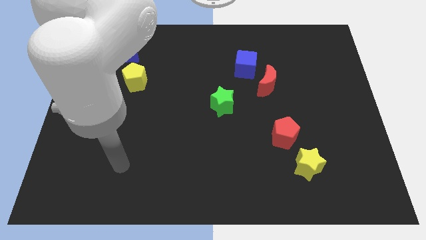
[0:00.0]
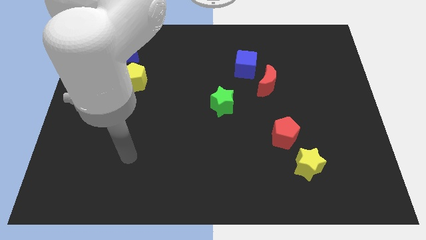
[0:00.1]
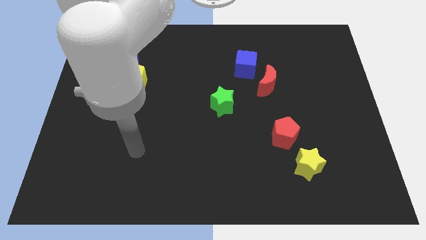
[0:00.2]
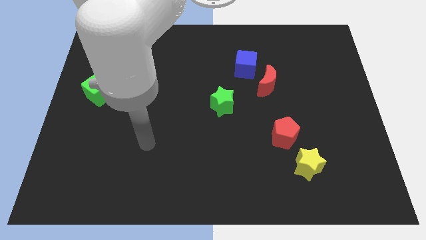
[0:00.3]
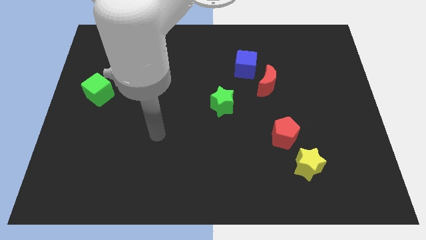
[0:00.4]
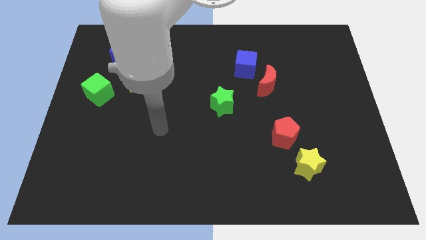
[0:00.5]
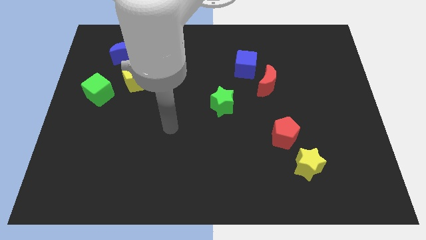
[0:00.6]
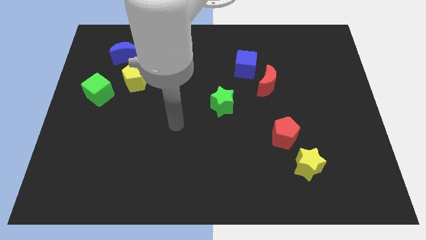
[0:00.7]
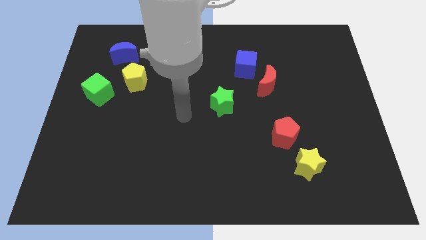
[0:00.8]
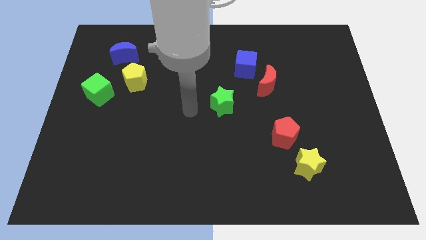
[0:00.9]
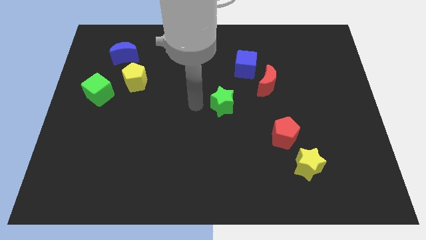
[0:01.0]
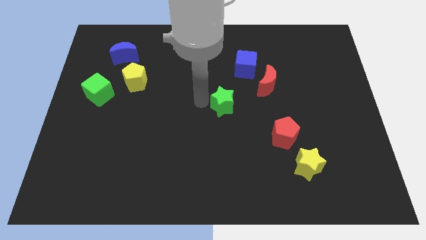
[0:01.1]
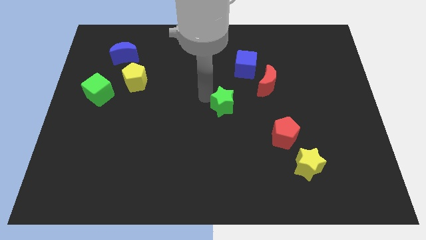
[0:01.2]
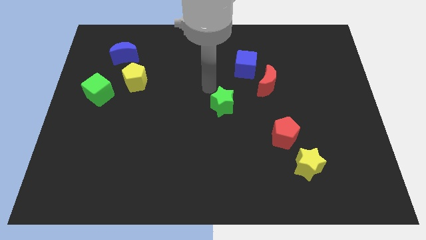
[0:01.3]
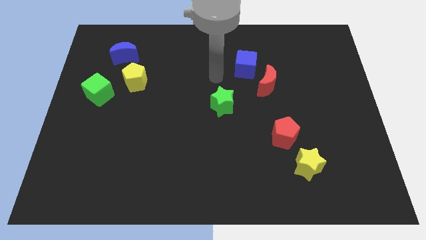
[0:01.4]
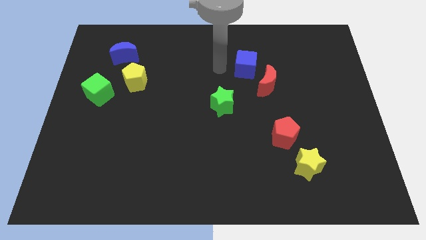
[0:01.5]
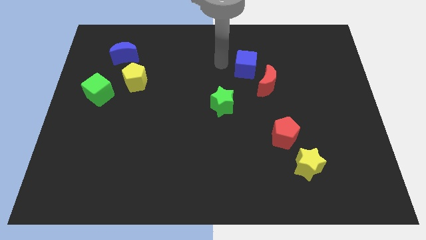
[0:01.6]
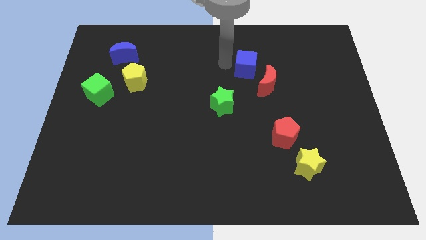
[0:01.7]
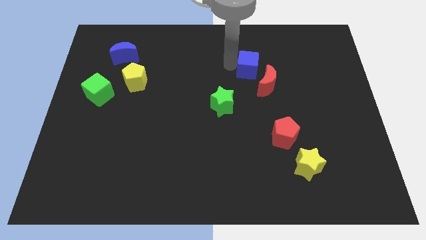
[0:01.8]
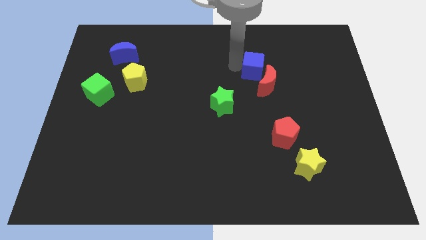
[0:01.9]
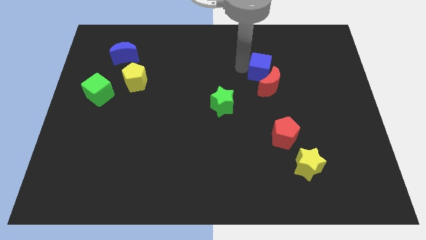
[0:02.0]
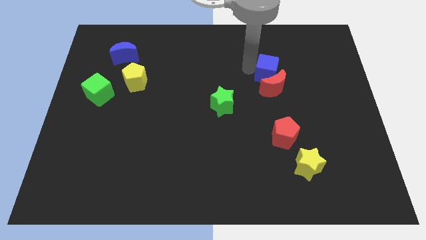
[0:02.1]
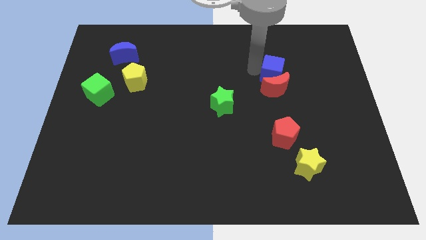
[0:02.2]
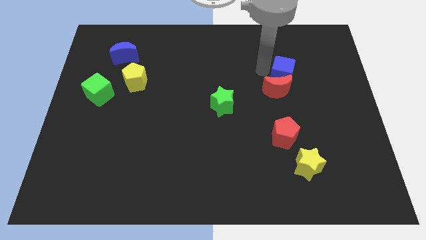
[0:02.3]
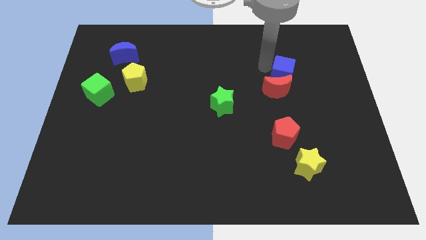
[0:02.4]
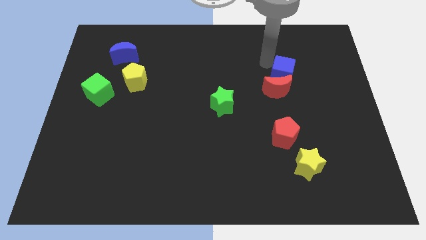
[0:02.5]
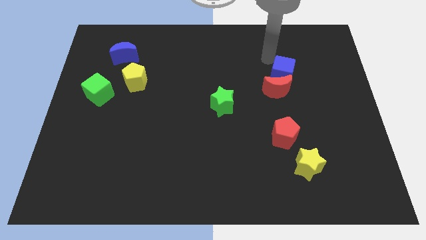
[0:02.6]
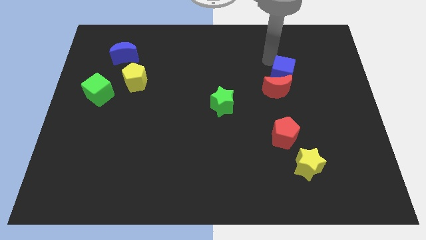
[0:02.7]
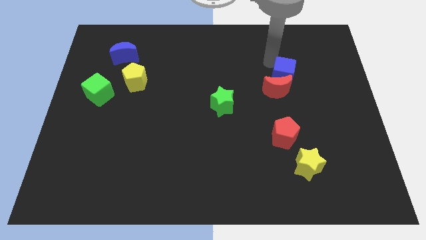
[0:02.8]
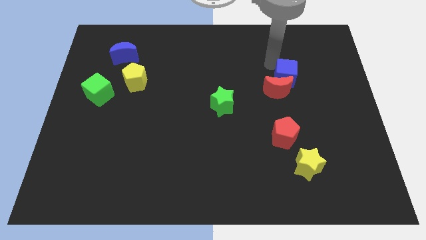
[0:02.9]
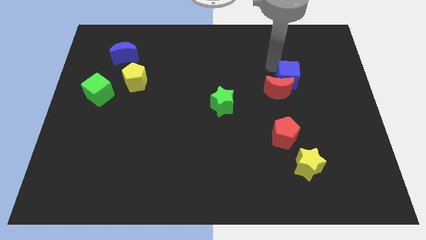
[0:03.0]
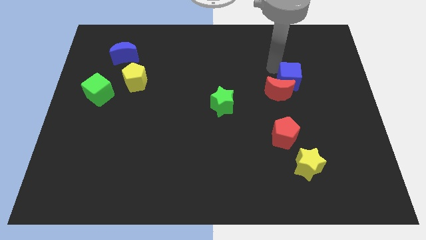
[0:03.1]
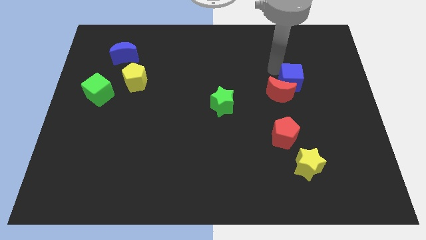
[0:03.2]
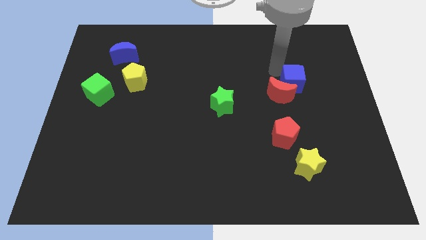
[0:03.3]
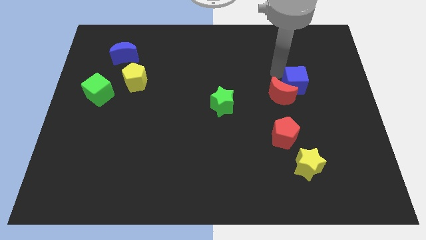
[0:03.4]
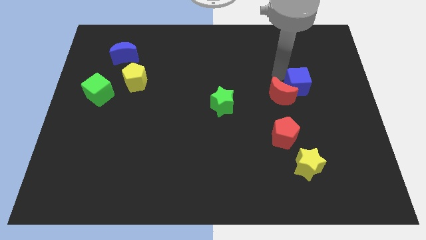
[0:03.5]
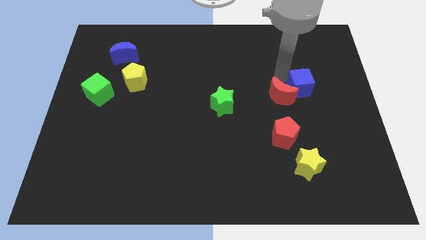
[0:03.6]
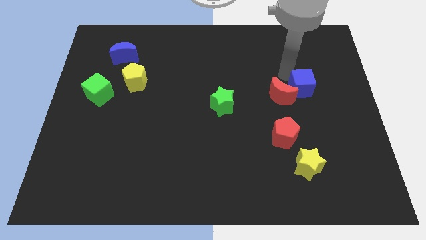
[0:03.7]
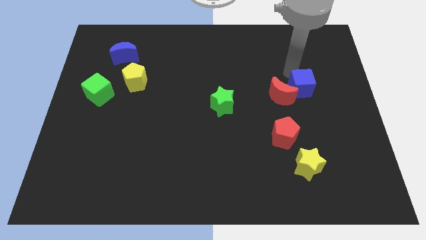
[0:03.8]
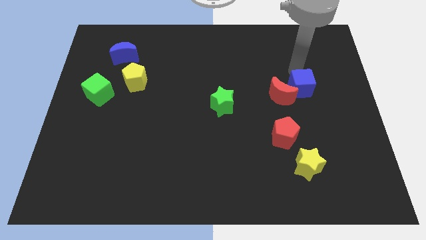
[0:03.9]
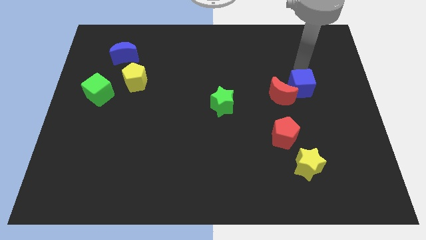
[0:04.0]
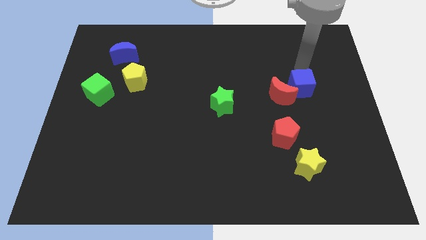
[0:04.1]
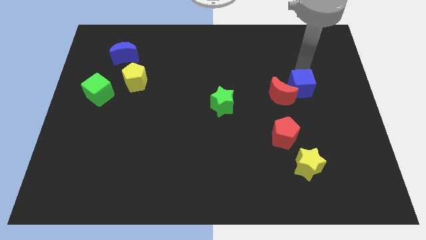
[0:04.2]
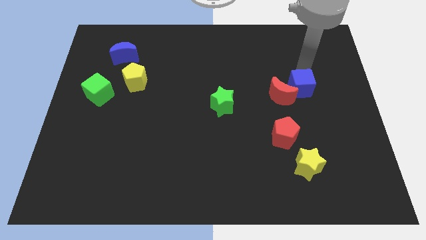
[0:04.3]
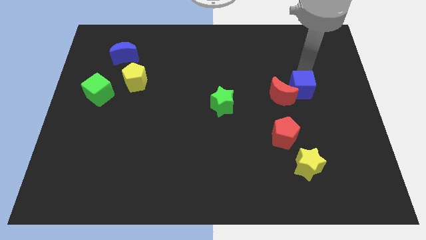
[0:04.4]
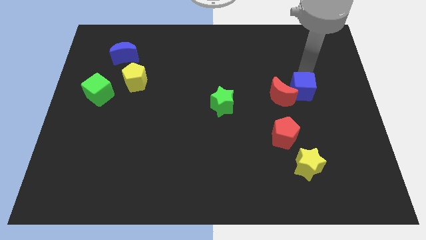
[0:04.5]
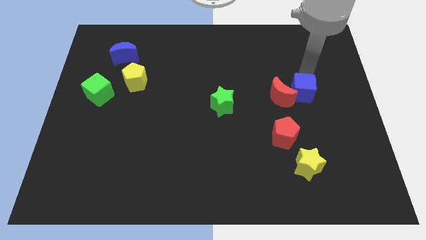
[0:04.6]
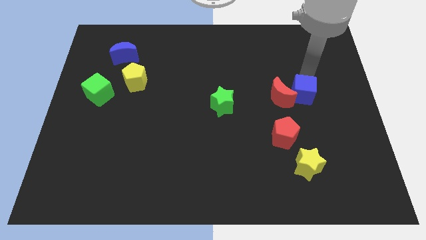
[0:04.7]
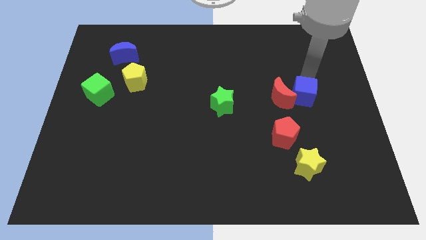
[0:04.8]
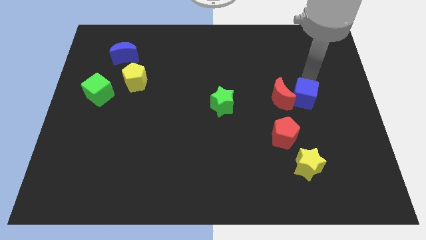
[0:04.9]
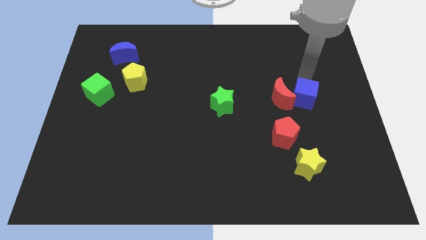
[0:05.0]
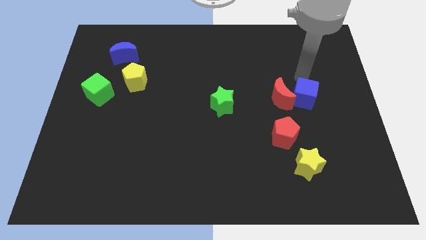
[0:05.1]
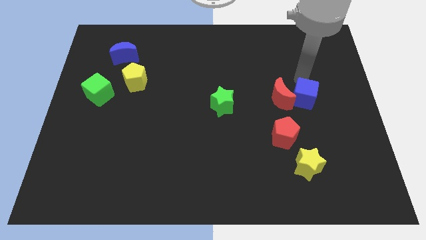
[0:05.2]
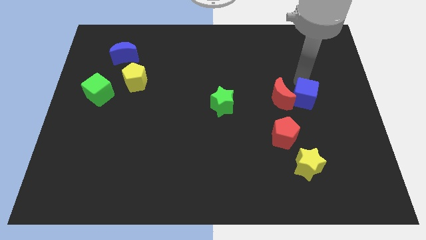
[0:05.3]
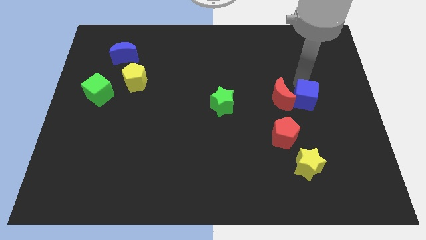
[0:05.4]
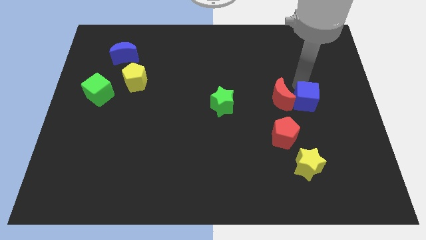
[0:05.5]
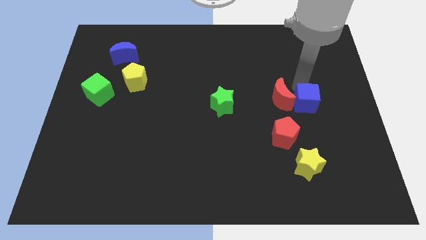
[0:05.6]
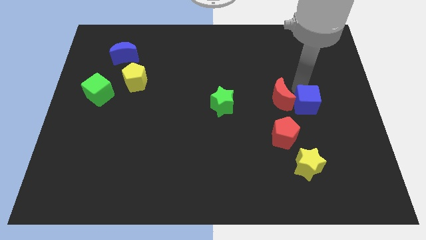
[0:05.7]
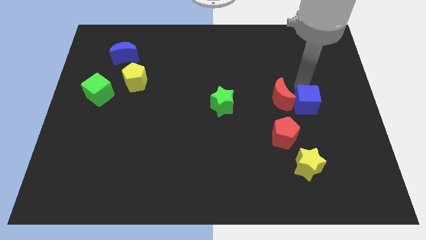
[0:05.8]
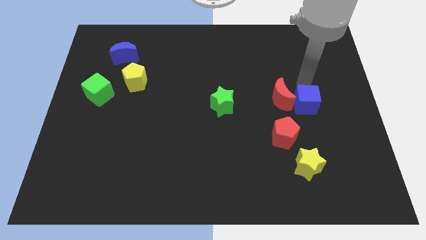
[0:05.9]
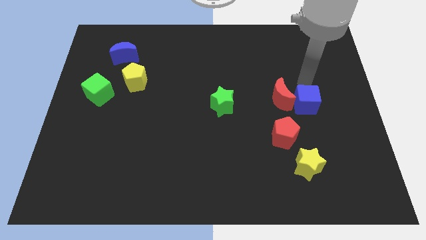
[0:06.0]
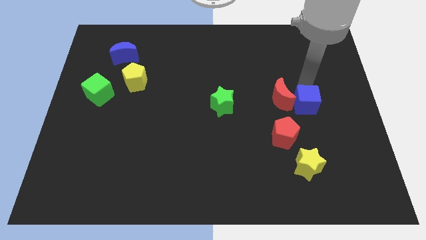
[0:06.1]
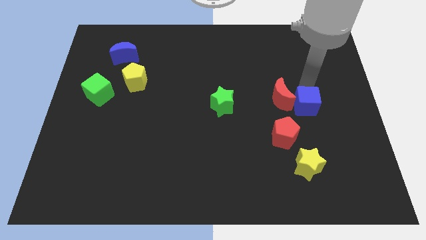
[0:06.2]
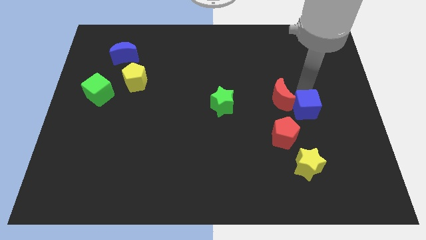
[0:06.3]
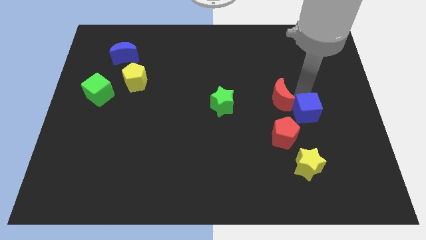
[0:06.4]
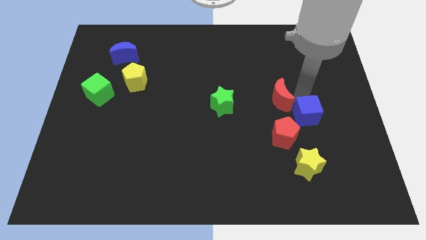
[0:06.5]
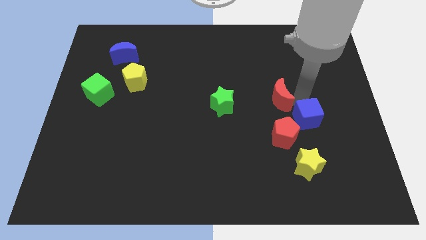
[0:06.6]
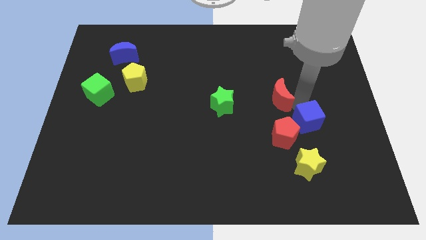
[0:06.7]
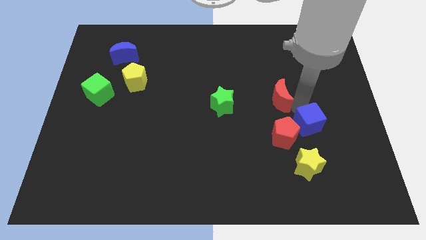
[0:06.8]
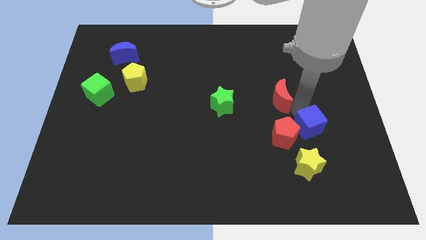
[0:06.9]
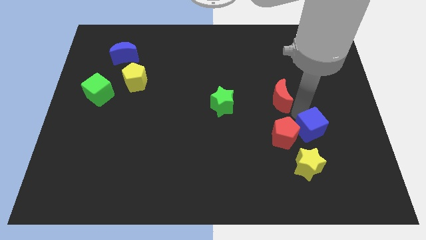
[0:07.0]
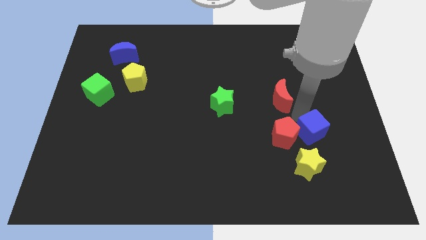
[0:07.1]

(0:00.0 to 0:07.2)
push the blue cube to the top right of the yellow star
